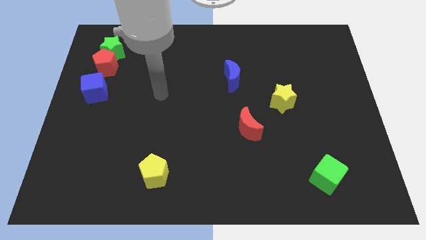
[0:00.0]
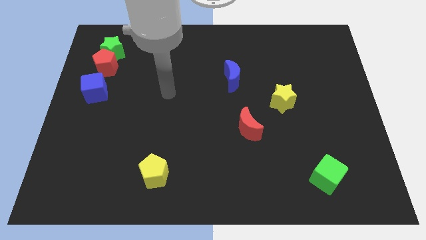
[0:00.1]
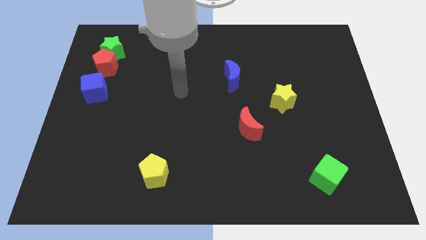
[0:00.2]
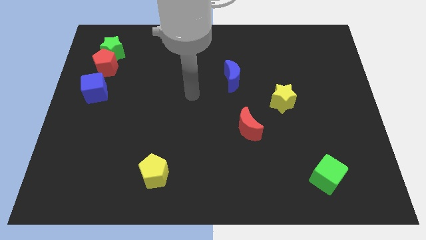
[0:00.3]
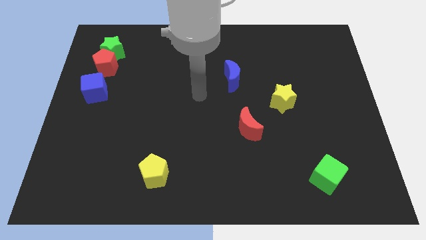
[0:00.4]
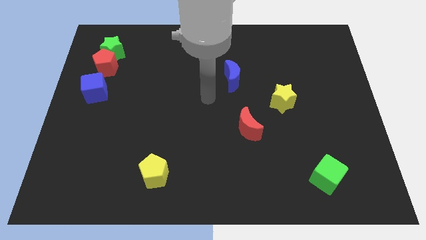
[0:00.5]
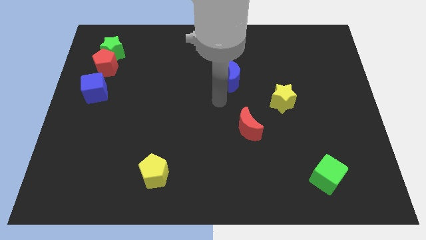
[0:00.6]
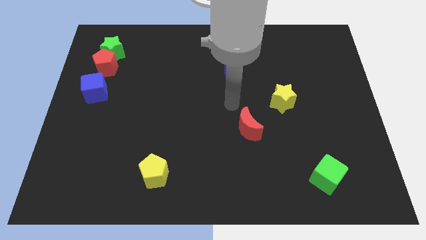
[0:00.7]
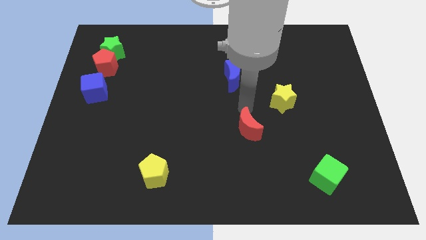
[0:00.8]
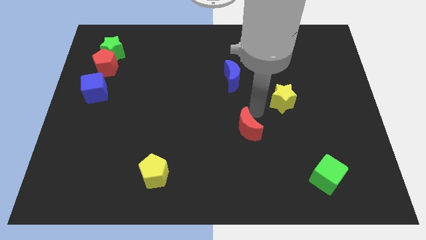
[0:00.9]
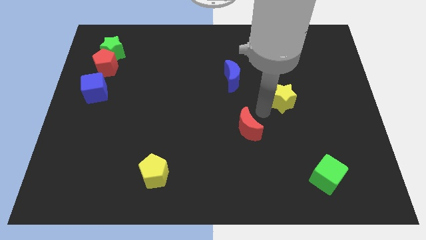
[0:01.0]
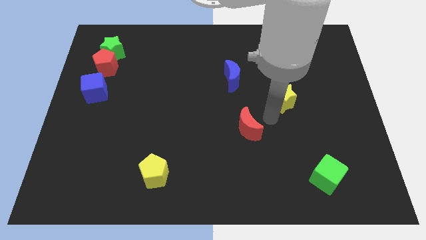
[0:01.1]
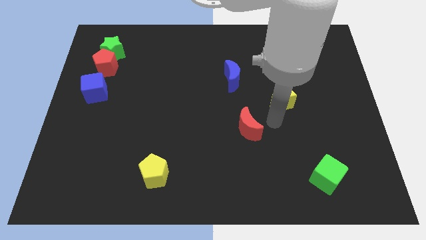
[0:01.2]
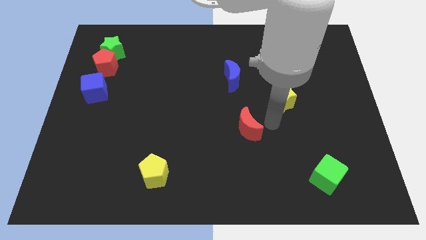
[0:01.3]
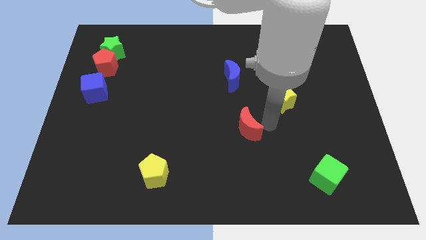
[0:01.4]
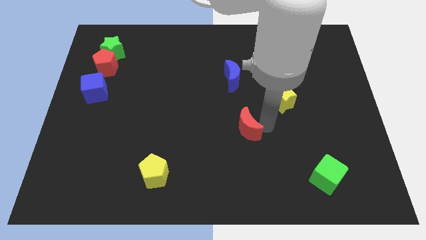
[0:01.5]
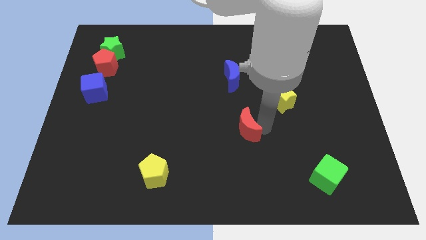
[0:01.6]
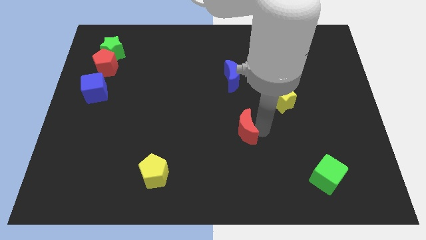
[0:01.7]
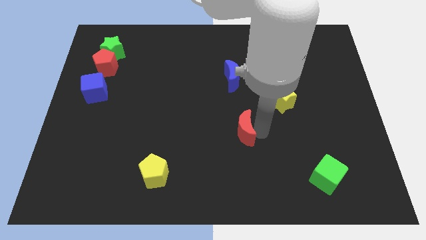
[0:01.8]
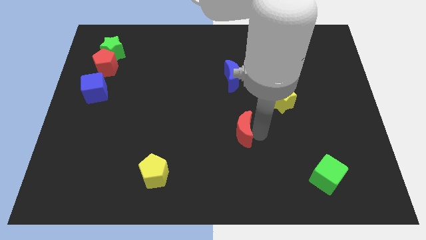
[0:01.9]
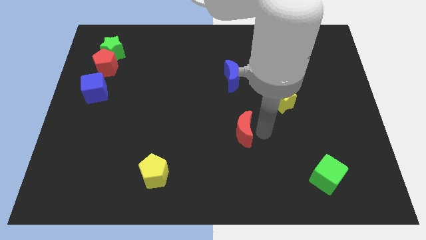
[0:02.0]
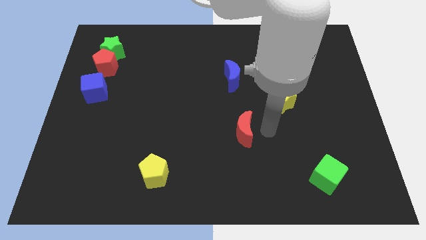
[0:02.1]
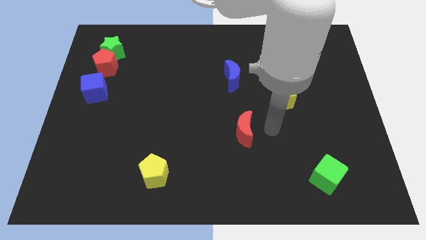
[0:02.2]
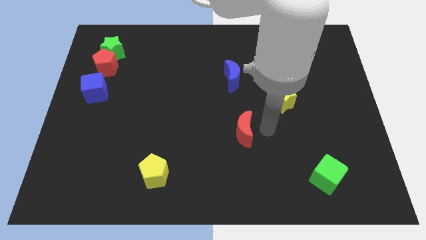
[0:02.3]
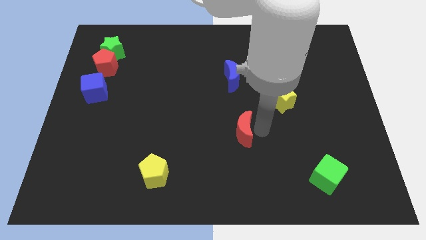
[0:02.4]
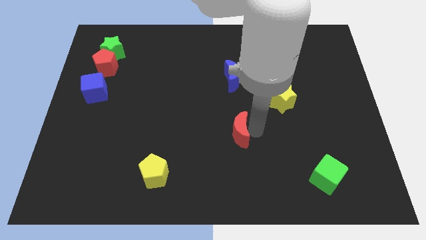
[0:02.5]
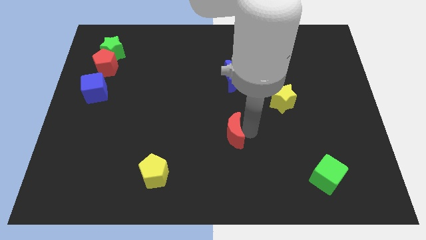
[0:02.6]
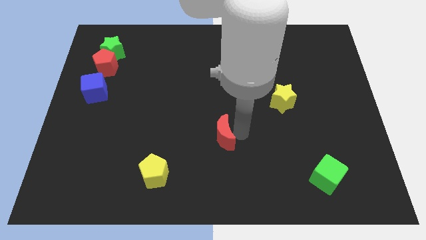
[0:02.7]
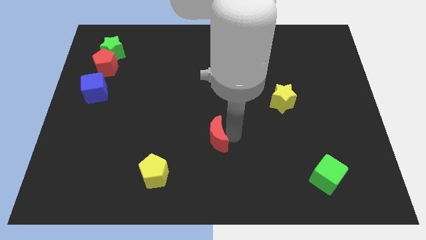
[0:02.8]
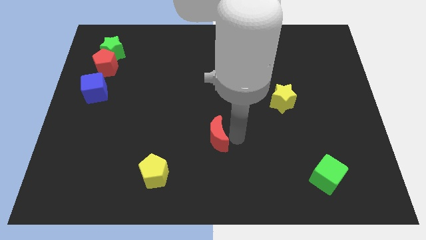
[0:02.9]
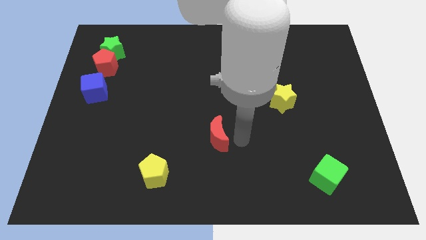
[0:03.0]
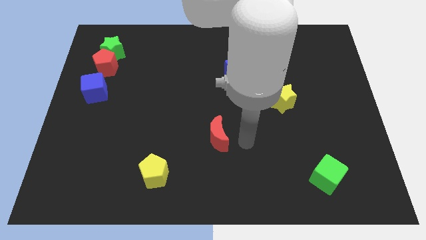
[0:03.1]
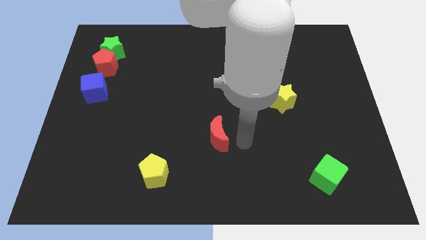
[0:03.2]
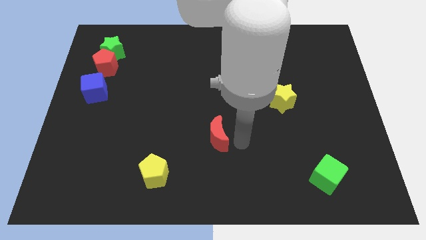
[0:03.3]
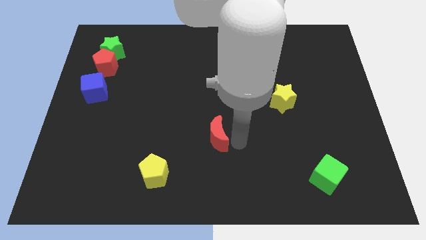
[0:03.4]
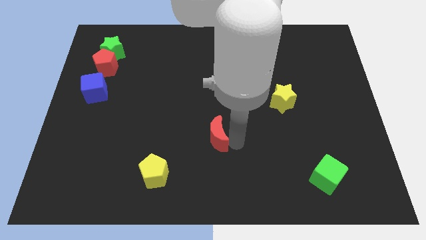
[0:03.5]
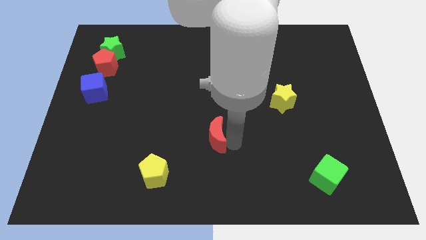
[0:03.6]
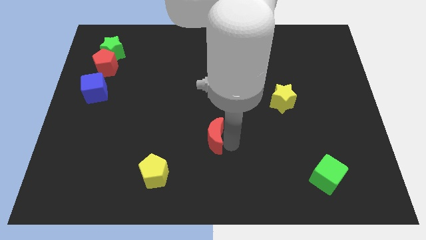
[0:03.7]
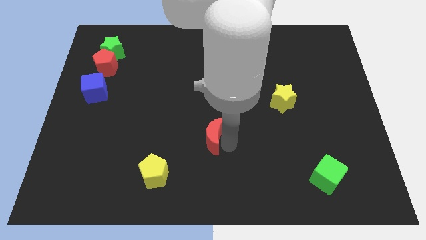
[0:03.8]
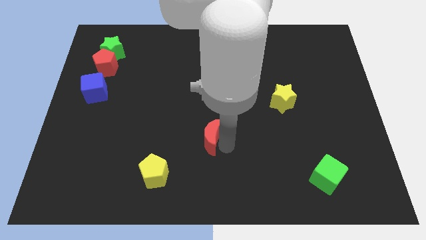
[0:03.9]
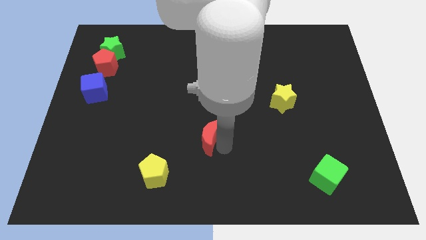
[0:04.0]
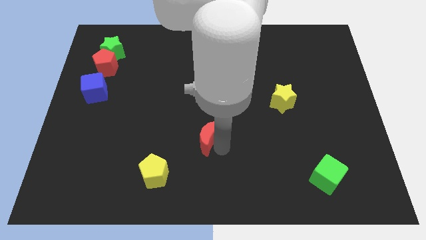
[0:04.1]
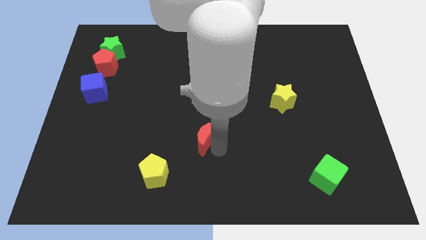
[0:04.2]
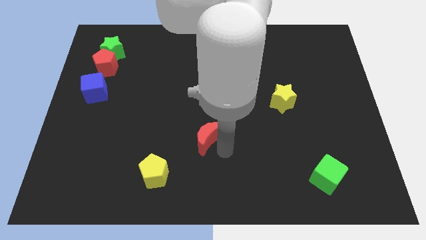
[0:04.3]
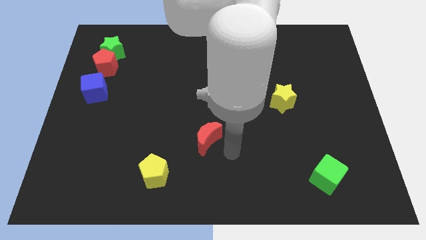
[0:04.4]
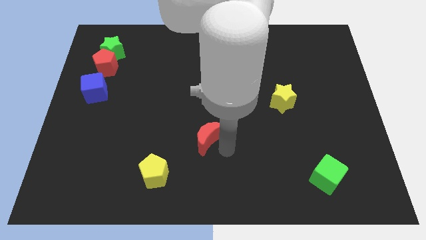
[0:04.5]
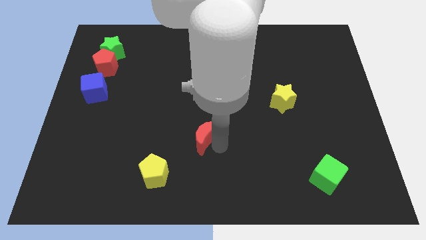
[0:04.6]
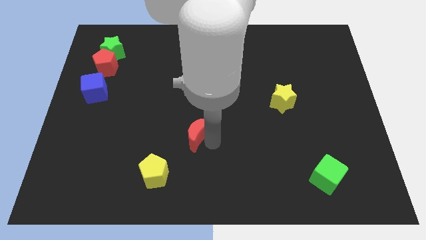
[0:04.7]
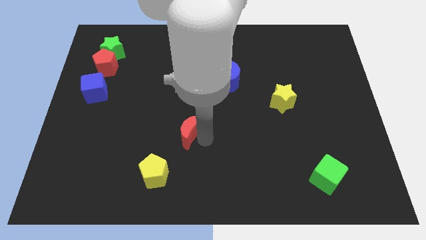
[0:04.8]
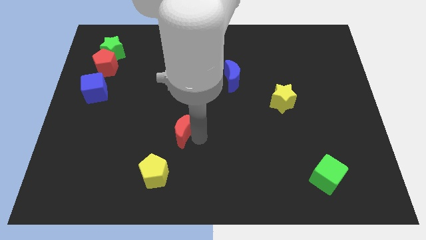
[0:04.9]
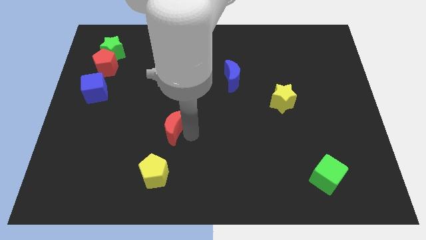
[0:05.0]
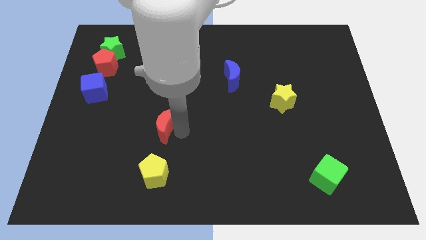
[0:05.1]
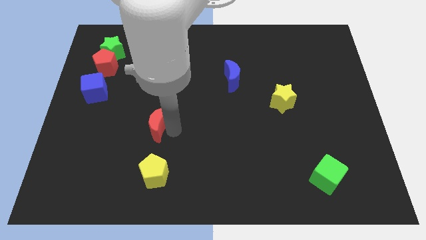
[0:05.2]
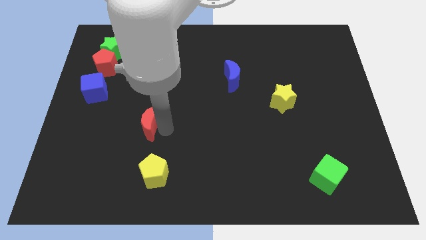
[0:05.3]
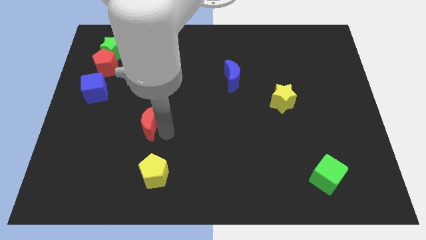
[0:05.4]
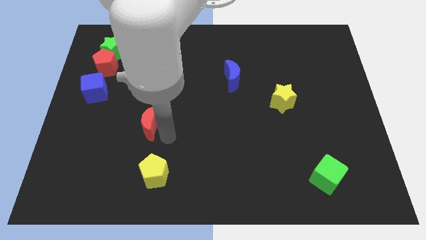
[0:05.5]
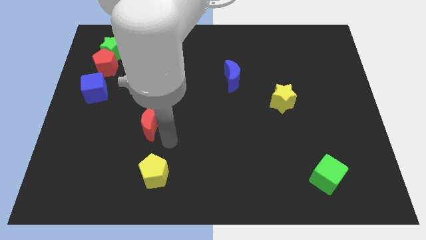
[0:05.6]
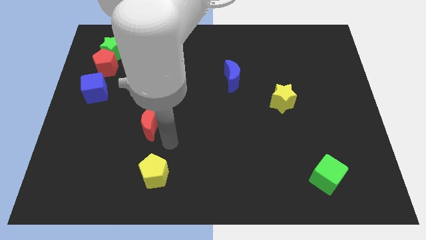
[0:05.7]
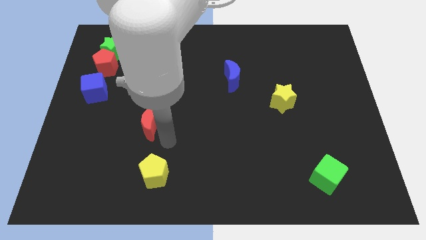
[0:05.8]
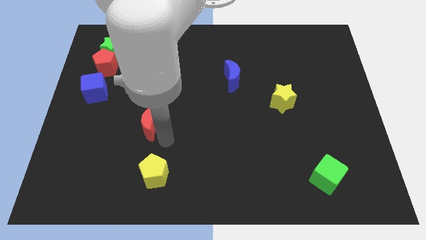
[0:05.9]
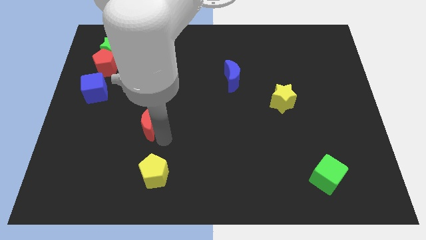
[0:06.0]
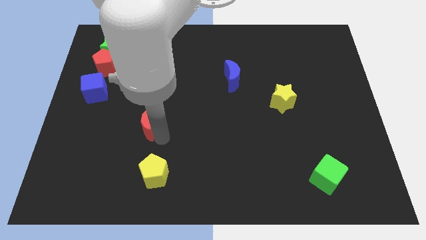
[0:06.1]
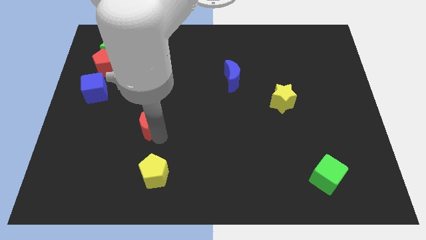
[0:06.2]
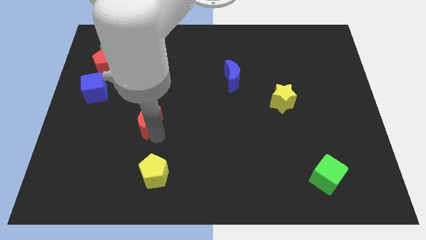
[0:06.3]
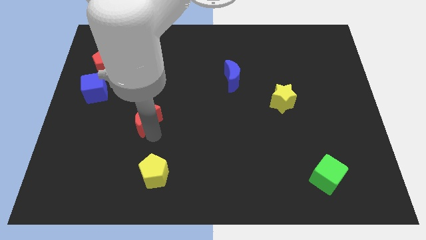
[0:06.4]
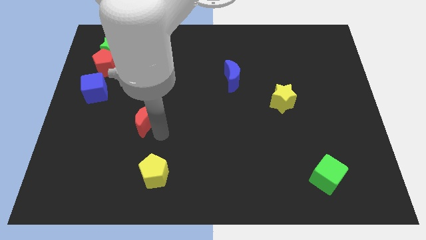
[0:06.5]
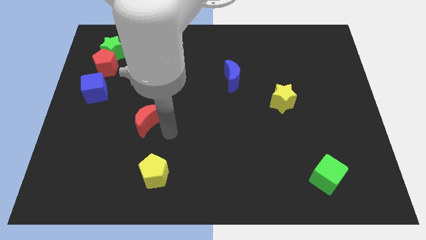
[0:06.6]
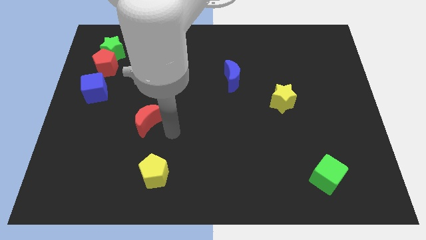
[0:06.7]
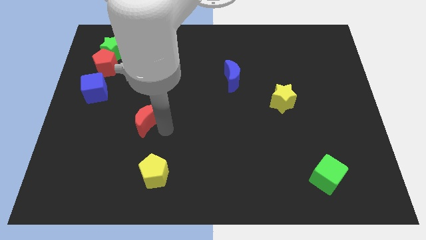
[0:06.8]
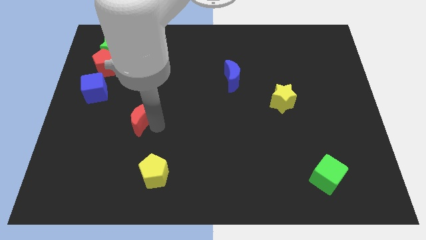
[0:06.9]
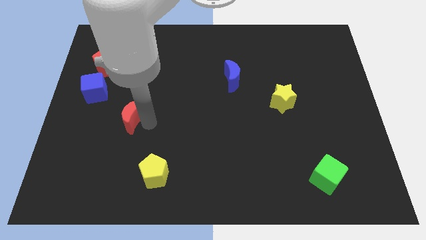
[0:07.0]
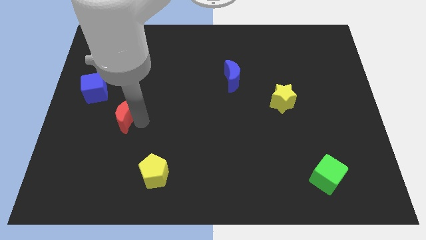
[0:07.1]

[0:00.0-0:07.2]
push the red moon diagonally down and to the right of the blue cube

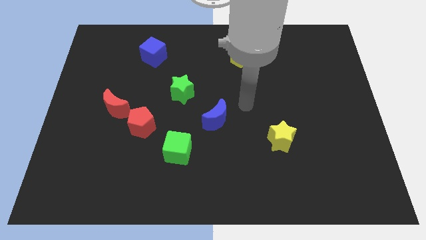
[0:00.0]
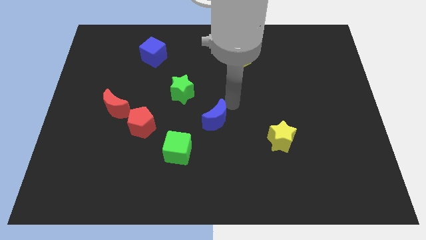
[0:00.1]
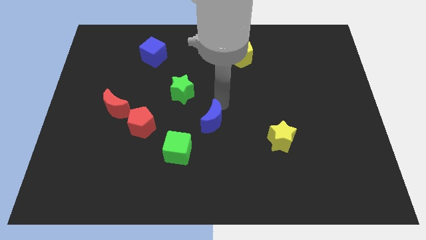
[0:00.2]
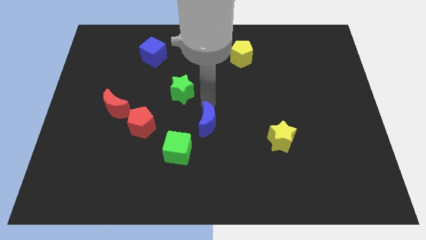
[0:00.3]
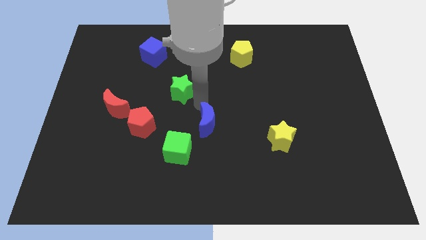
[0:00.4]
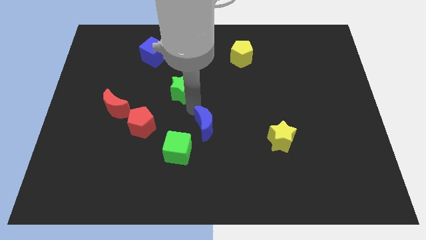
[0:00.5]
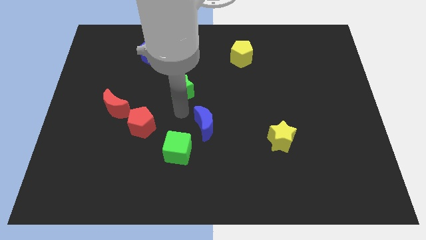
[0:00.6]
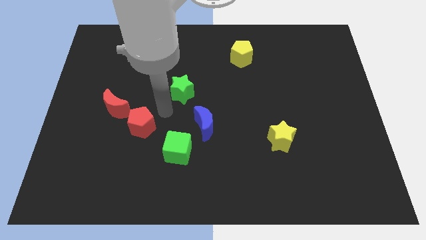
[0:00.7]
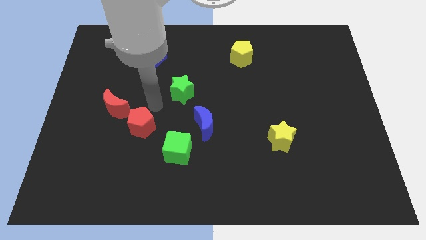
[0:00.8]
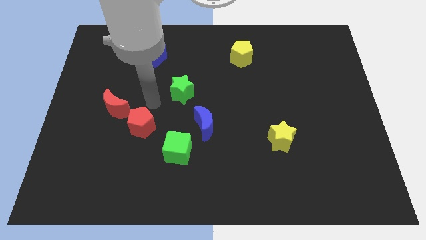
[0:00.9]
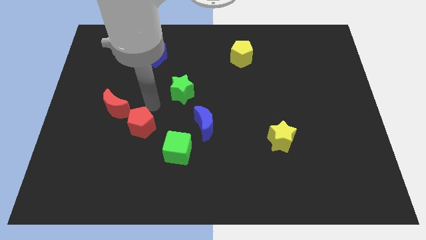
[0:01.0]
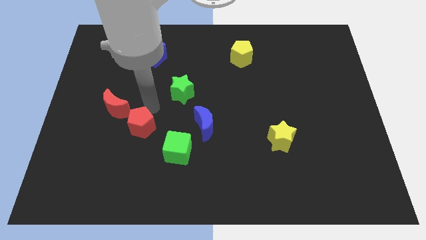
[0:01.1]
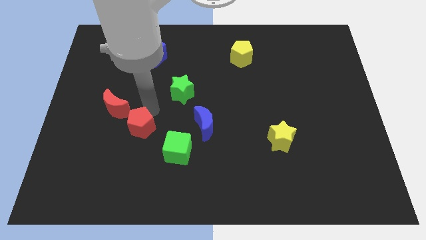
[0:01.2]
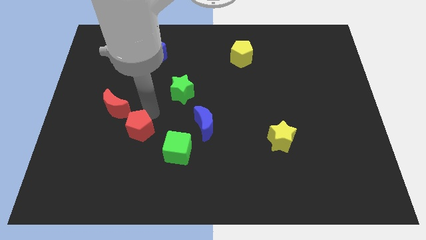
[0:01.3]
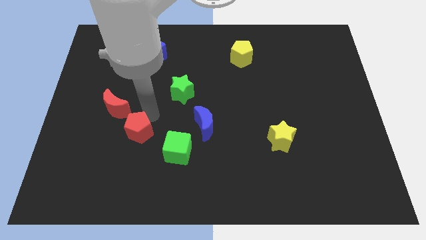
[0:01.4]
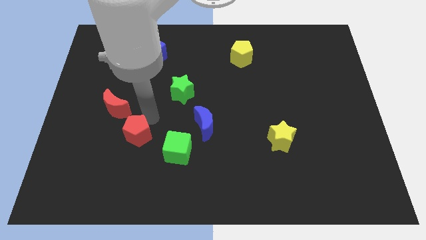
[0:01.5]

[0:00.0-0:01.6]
move the red pentagon just left of the green cube

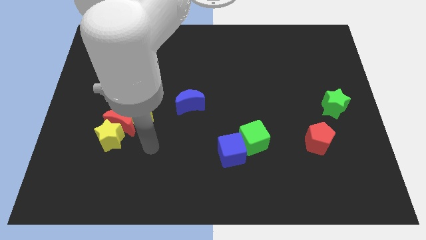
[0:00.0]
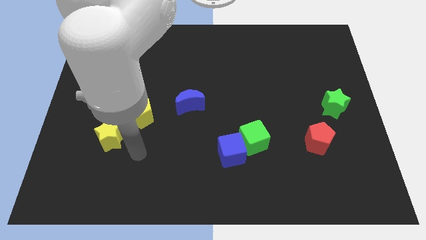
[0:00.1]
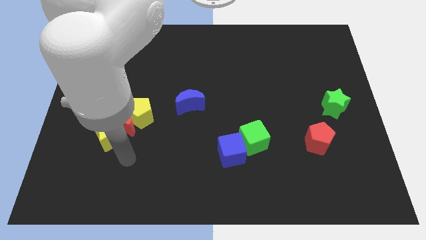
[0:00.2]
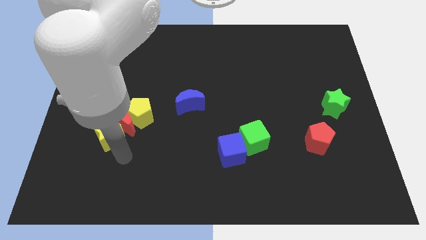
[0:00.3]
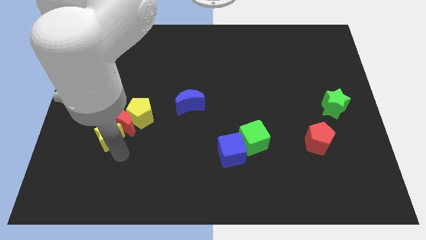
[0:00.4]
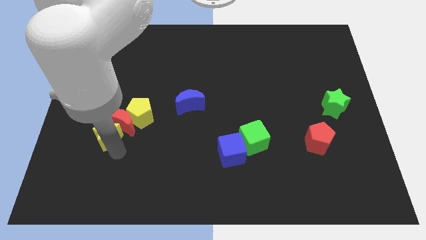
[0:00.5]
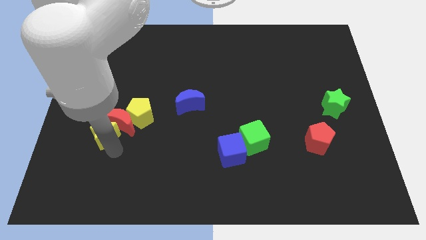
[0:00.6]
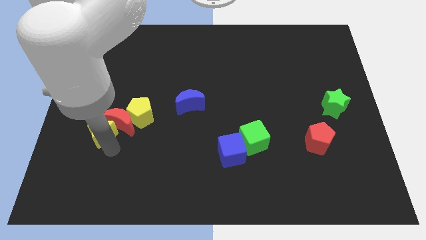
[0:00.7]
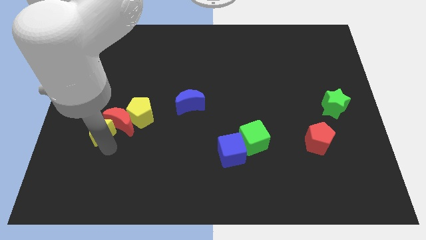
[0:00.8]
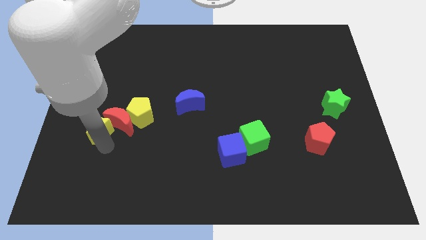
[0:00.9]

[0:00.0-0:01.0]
push the yellow star to the left side of the yellow pentagon
